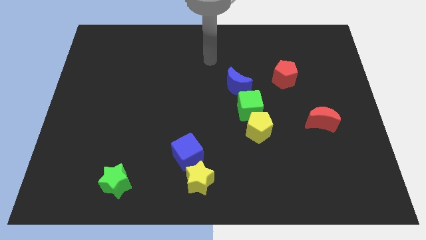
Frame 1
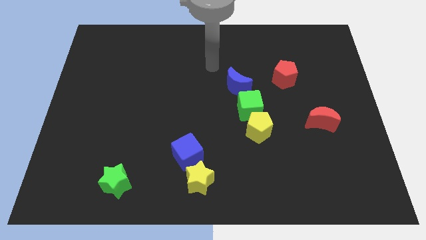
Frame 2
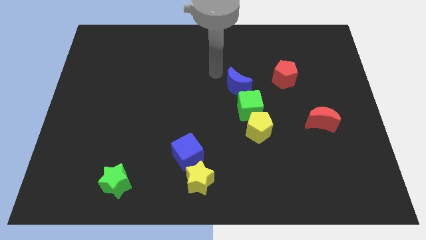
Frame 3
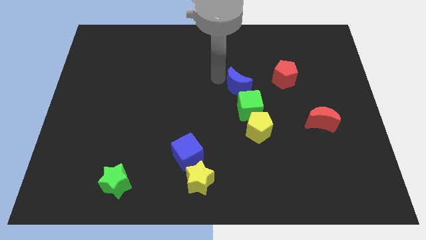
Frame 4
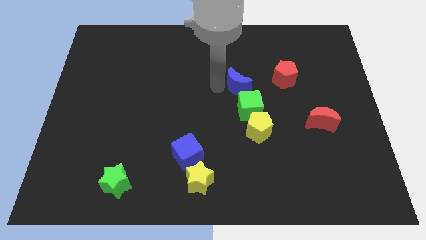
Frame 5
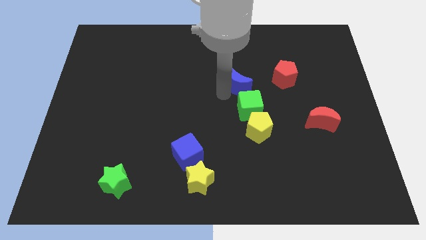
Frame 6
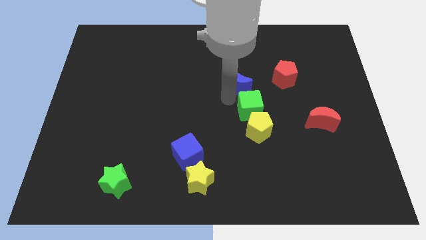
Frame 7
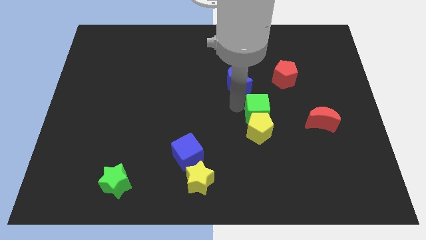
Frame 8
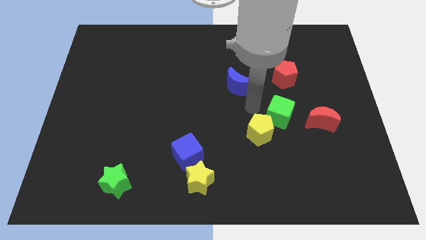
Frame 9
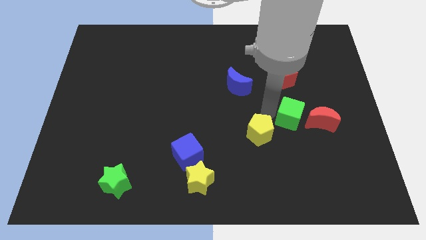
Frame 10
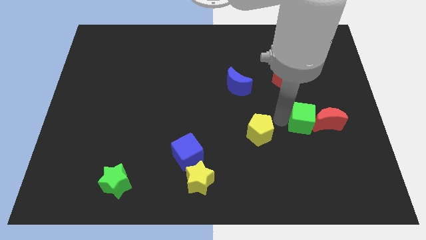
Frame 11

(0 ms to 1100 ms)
move the yellow pentagon away from the green cube

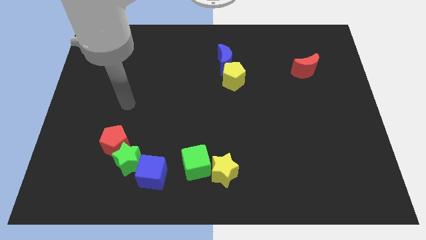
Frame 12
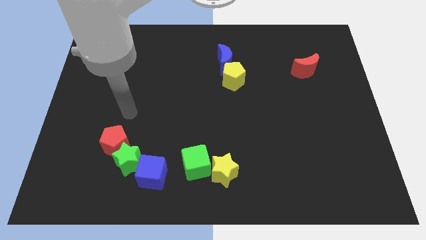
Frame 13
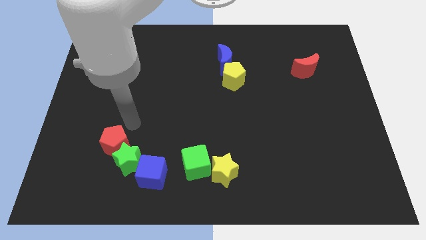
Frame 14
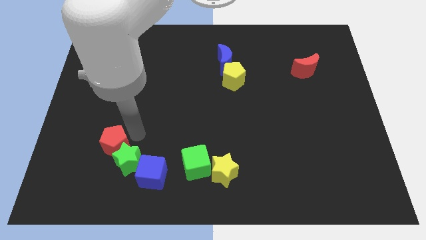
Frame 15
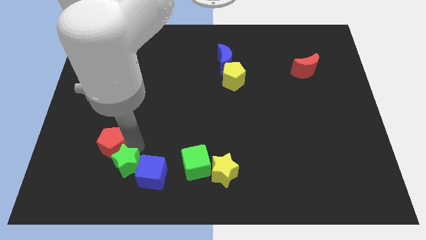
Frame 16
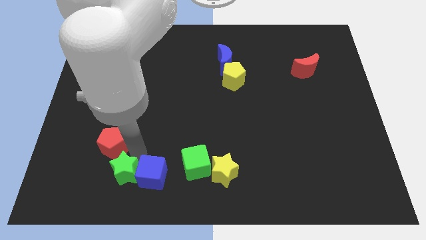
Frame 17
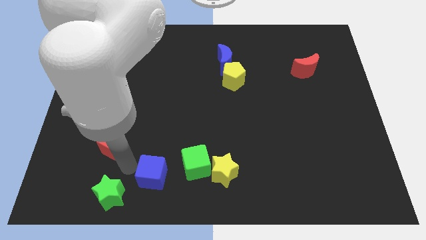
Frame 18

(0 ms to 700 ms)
move the red pentagon away from the green star

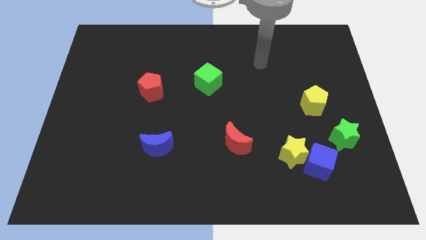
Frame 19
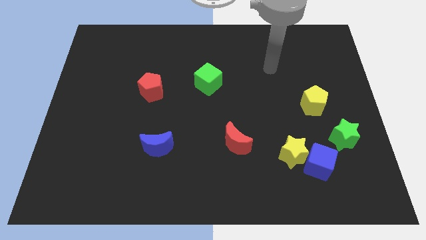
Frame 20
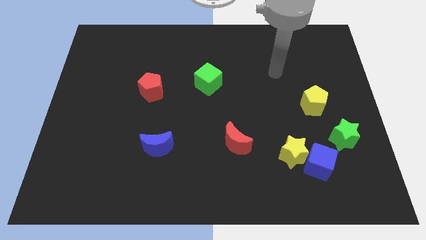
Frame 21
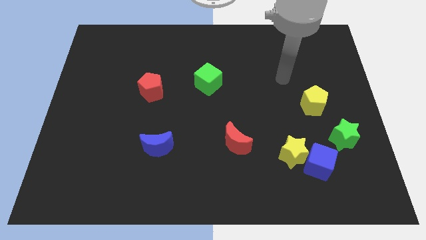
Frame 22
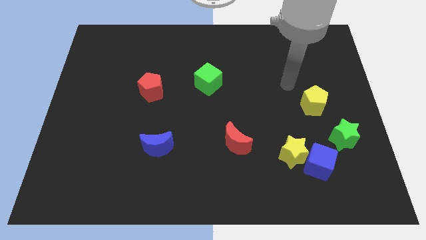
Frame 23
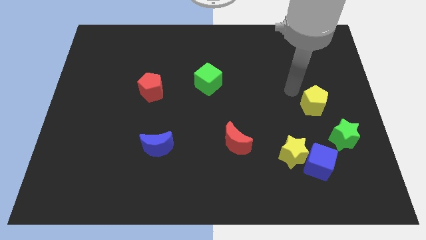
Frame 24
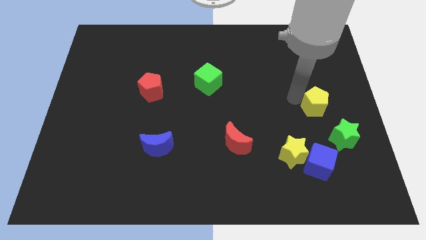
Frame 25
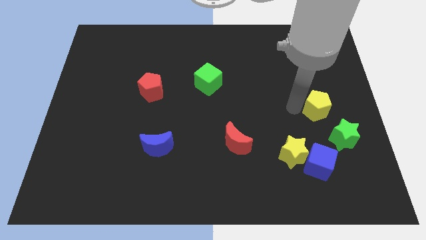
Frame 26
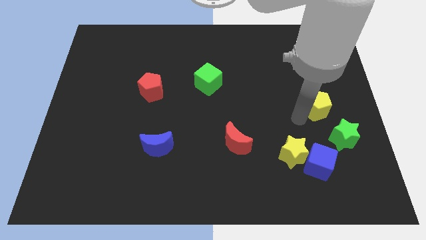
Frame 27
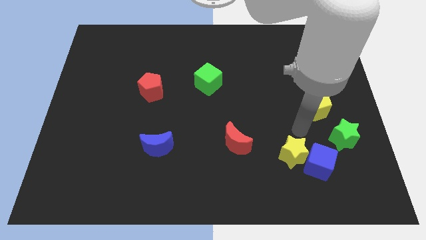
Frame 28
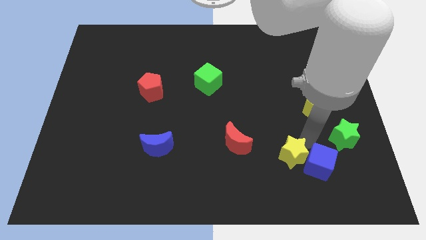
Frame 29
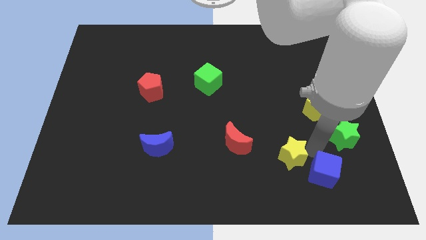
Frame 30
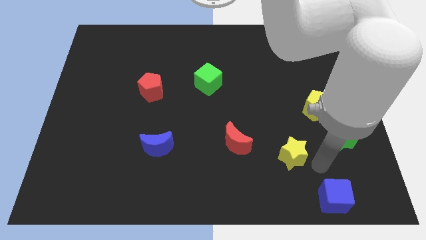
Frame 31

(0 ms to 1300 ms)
move the yellow star away from the blue cube

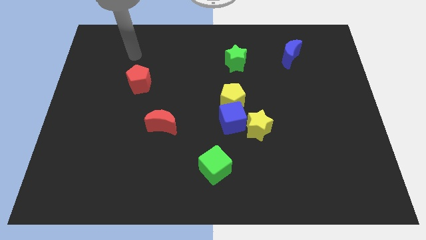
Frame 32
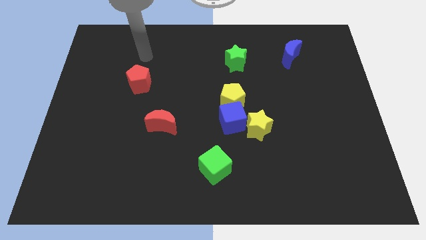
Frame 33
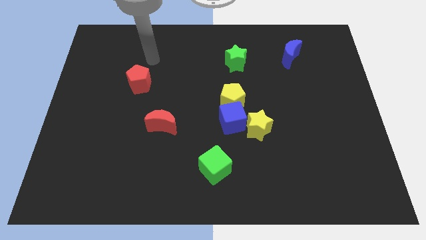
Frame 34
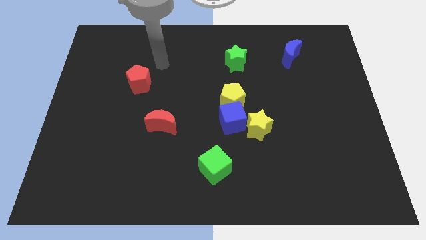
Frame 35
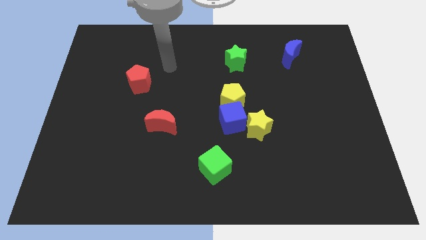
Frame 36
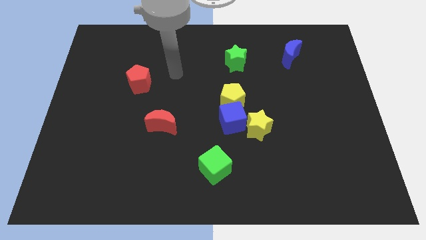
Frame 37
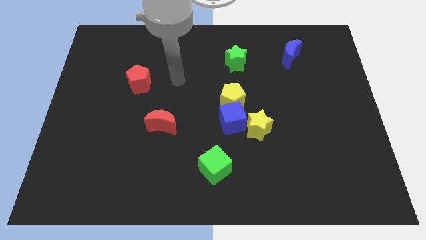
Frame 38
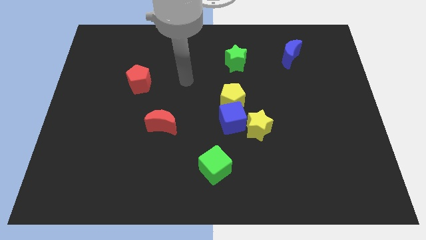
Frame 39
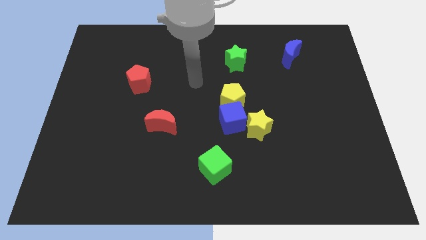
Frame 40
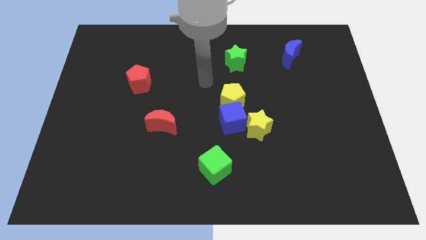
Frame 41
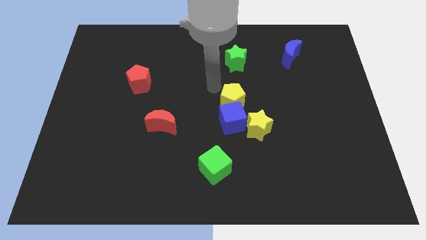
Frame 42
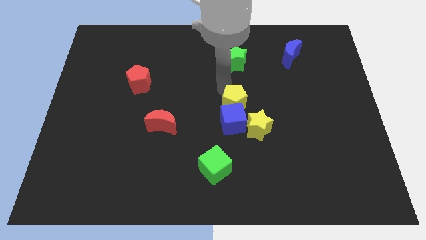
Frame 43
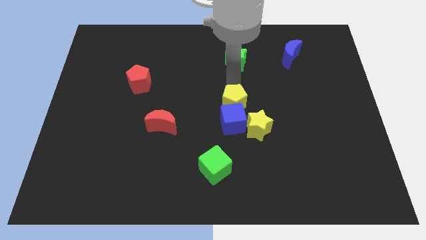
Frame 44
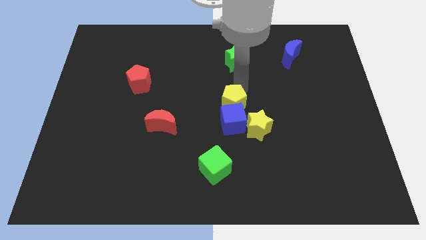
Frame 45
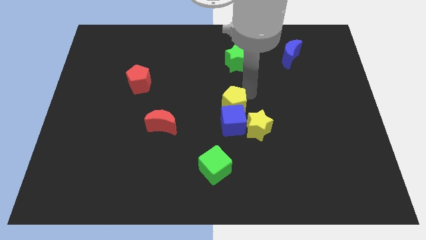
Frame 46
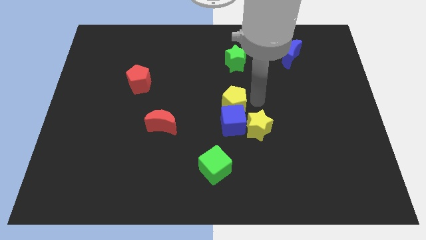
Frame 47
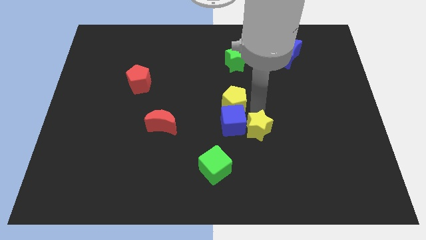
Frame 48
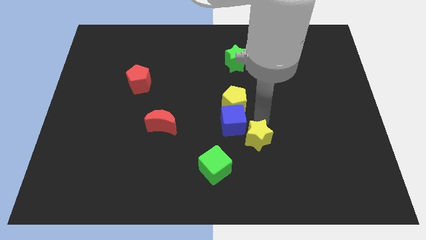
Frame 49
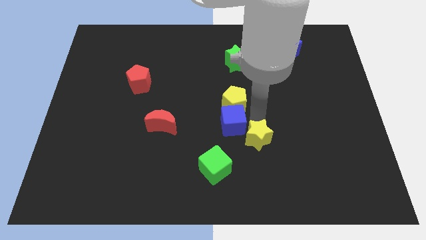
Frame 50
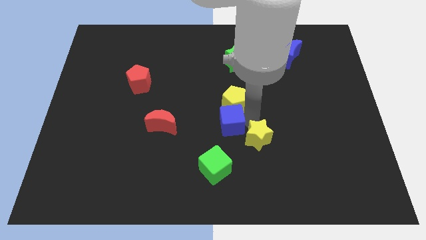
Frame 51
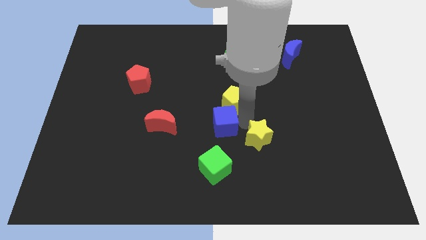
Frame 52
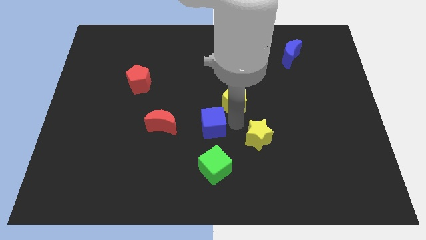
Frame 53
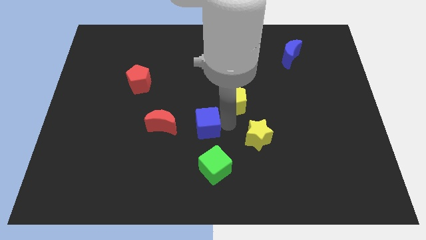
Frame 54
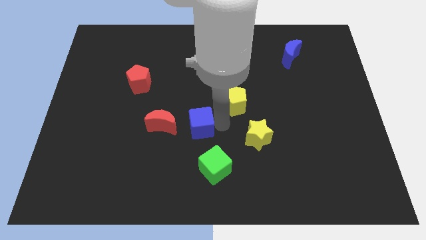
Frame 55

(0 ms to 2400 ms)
pull the blue cube apart from the yellow pentagon and yellow star

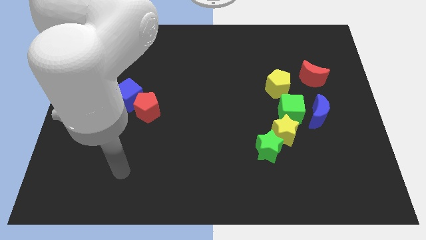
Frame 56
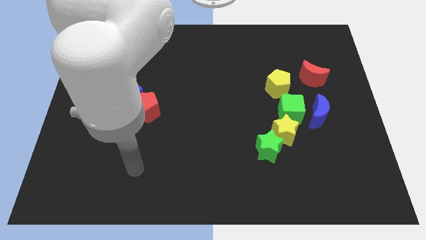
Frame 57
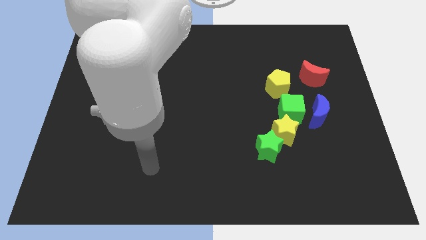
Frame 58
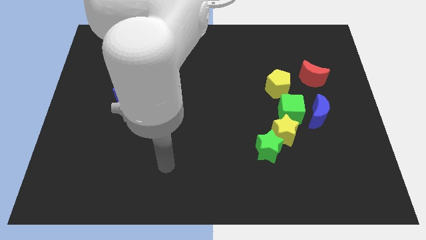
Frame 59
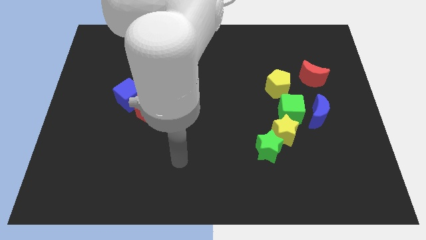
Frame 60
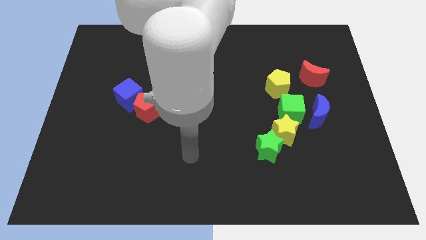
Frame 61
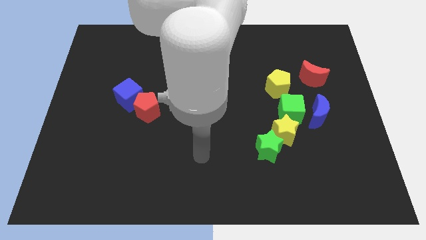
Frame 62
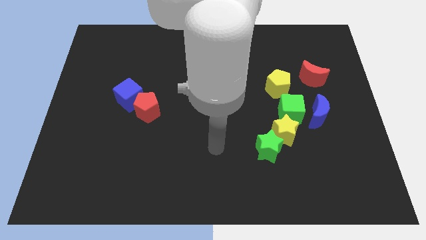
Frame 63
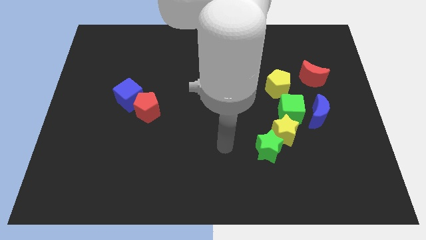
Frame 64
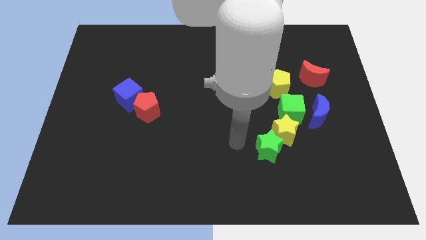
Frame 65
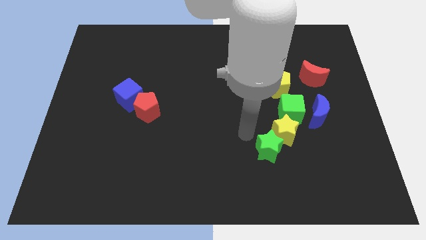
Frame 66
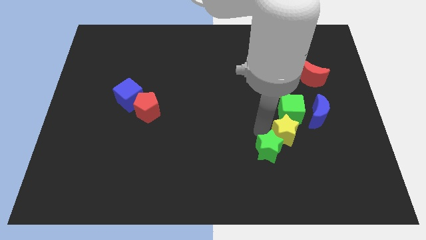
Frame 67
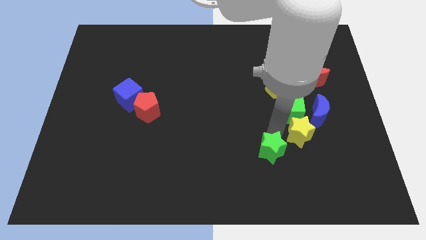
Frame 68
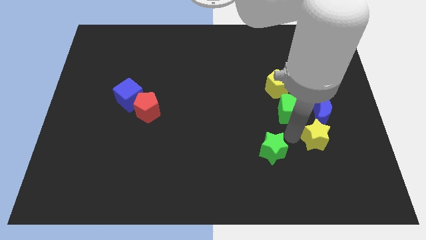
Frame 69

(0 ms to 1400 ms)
separate the green star from the yellow star

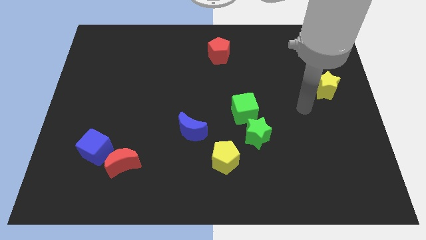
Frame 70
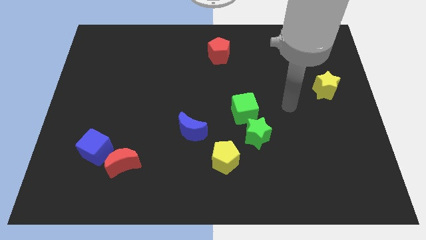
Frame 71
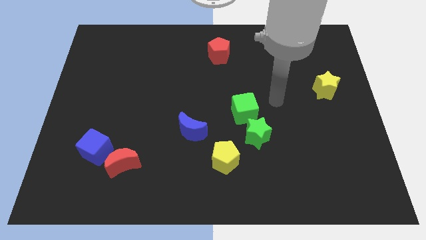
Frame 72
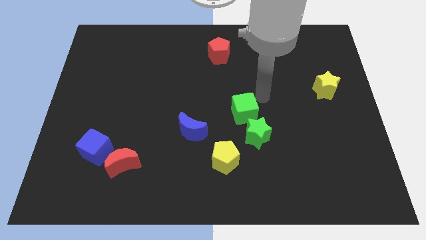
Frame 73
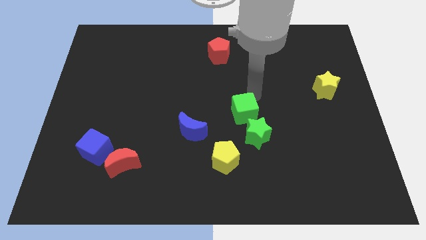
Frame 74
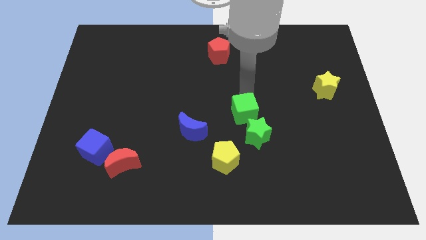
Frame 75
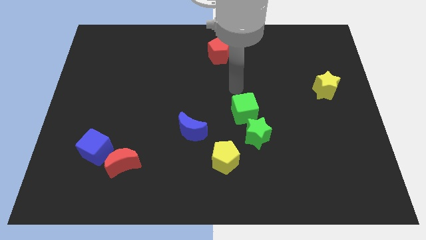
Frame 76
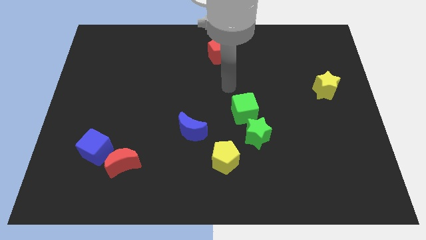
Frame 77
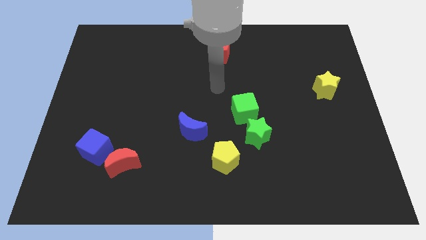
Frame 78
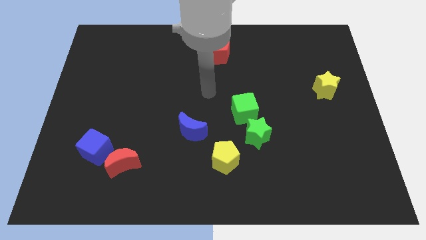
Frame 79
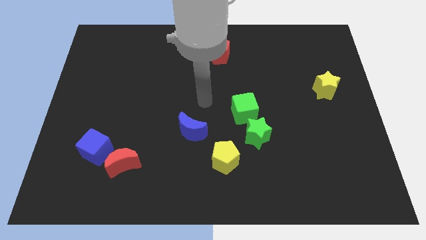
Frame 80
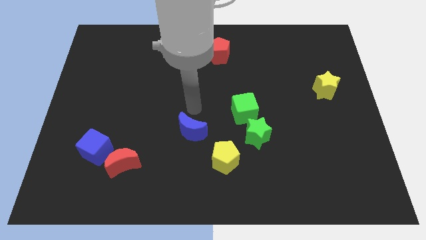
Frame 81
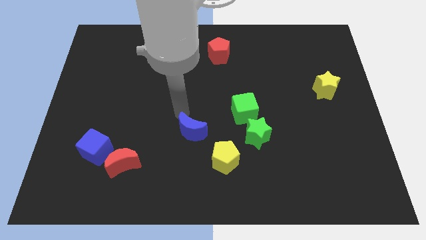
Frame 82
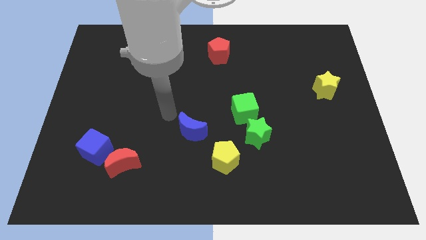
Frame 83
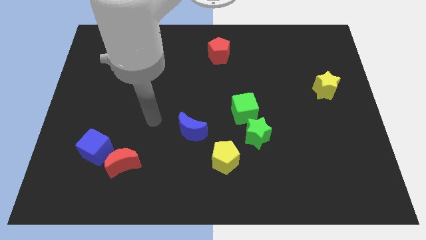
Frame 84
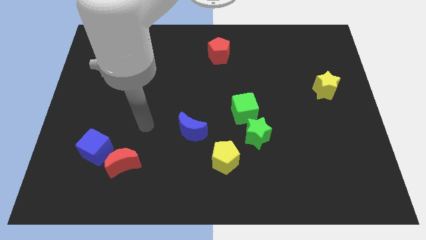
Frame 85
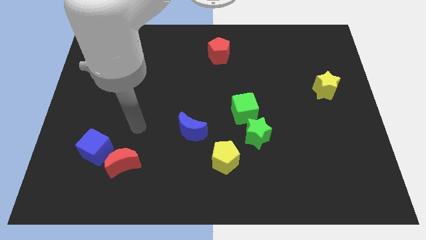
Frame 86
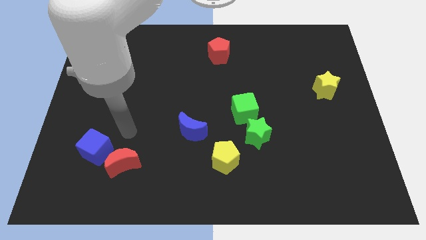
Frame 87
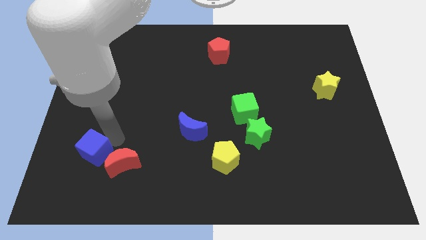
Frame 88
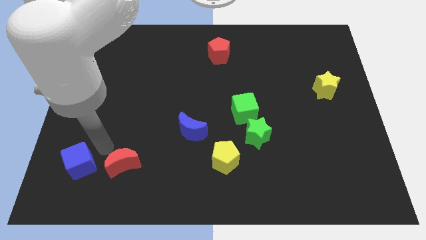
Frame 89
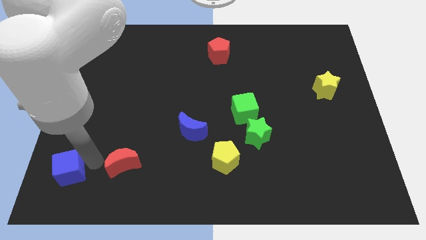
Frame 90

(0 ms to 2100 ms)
move the red moon away from the blue cube

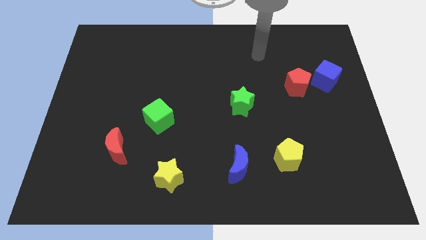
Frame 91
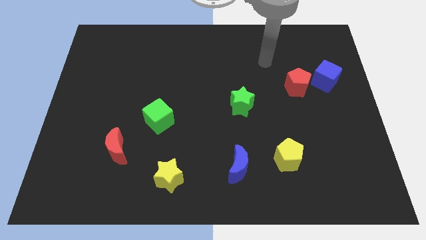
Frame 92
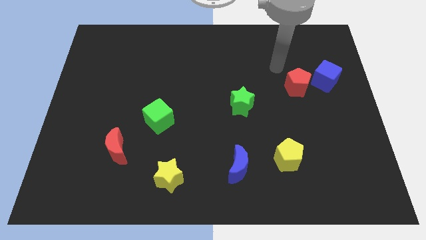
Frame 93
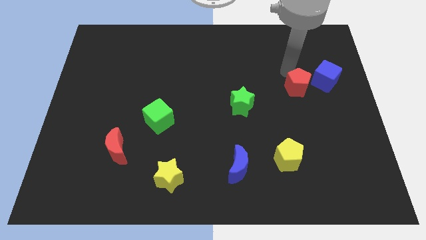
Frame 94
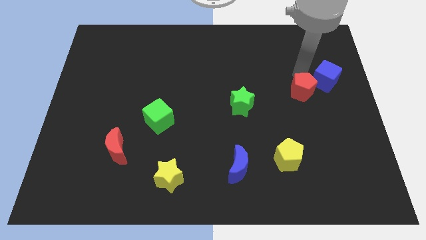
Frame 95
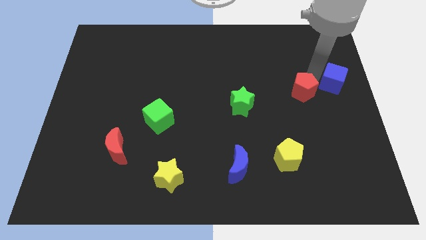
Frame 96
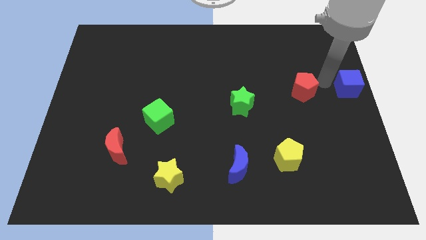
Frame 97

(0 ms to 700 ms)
move the red pentagon away from the blue cube
